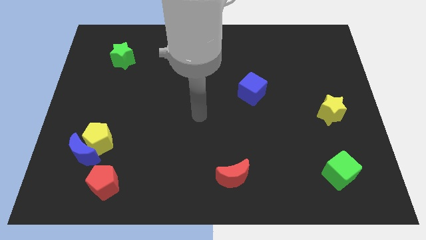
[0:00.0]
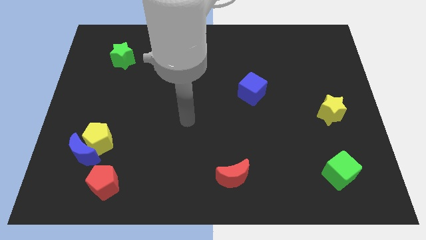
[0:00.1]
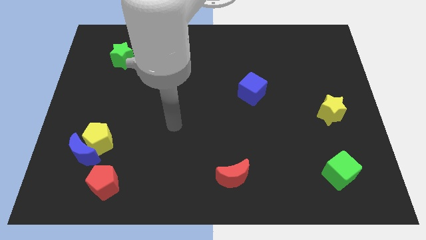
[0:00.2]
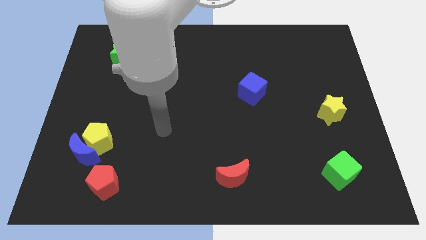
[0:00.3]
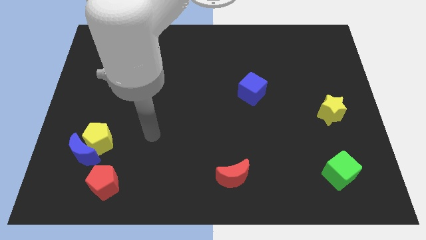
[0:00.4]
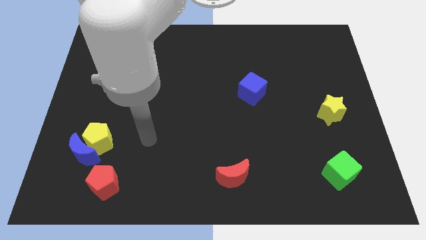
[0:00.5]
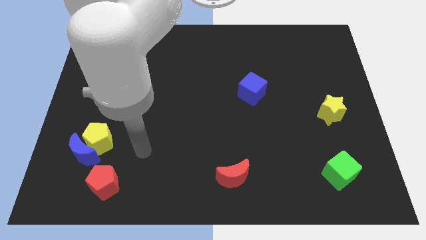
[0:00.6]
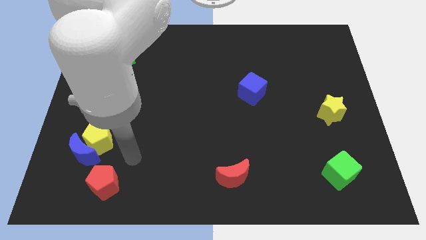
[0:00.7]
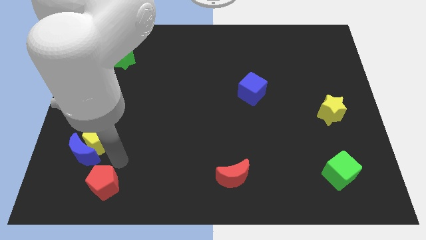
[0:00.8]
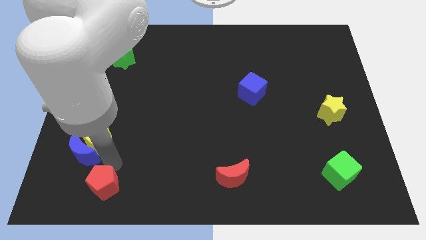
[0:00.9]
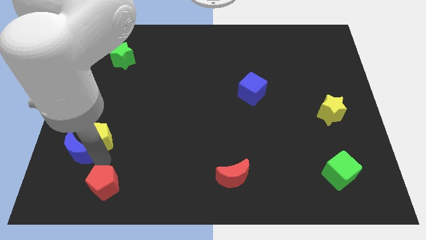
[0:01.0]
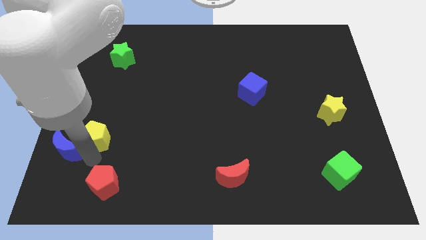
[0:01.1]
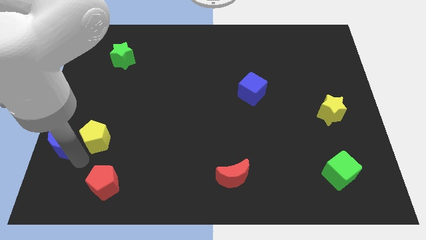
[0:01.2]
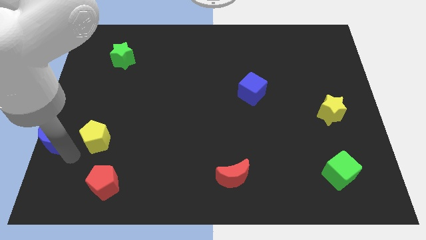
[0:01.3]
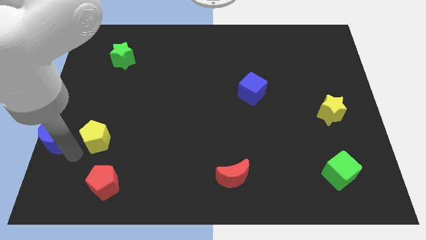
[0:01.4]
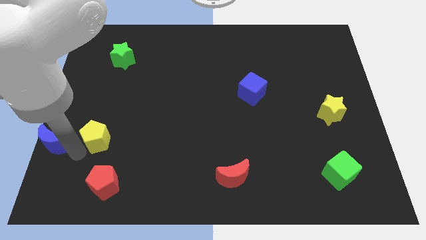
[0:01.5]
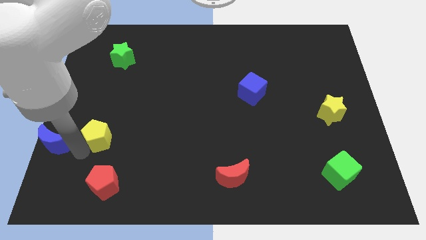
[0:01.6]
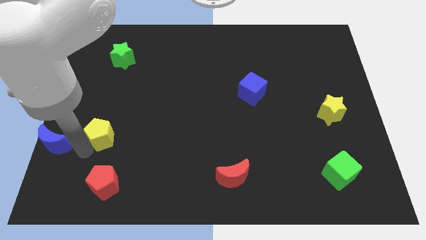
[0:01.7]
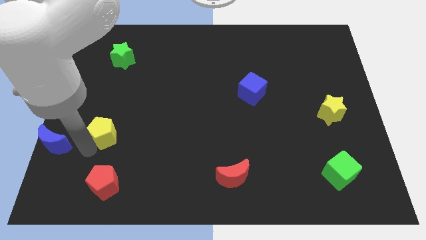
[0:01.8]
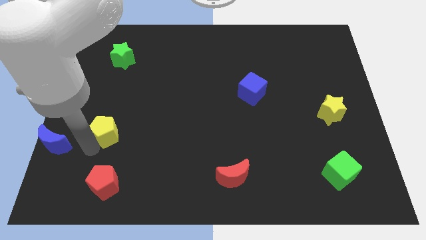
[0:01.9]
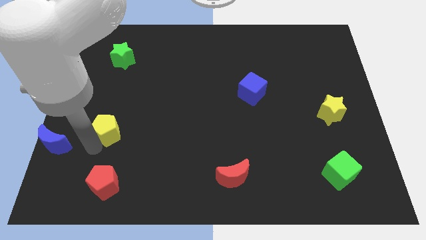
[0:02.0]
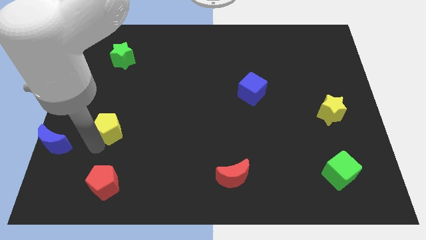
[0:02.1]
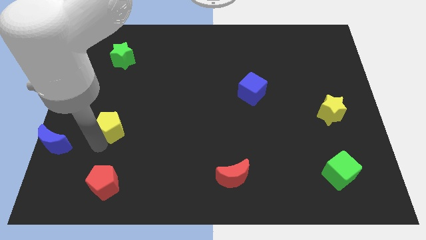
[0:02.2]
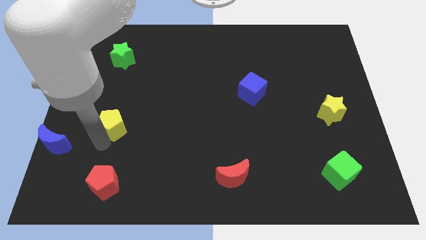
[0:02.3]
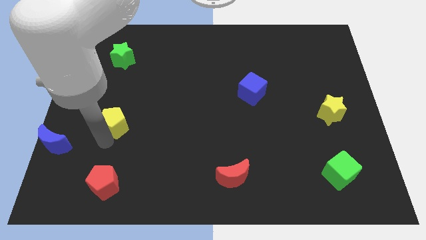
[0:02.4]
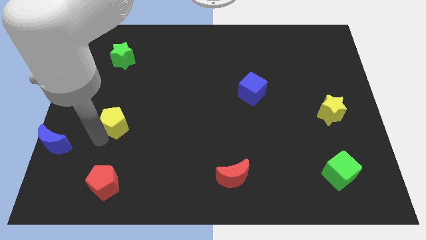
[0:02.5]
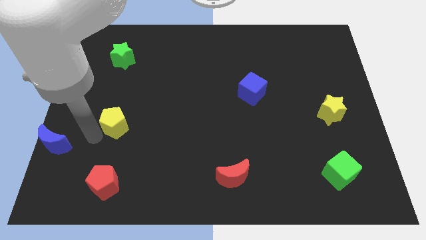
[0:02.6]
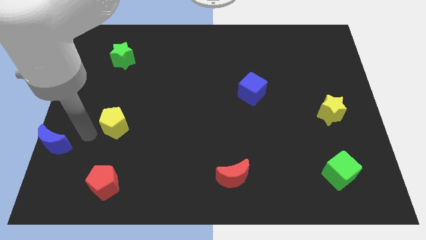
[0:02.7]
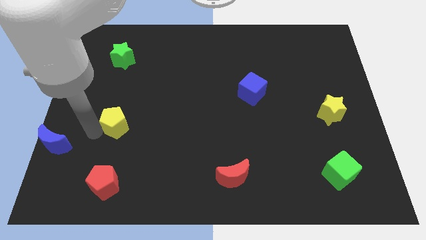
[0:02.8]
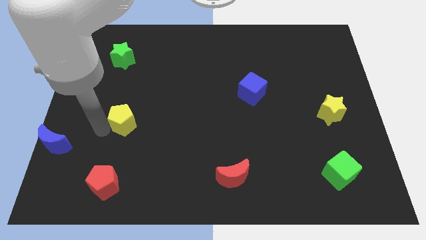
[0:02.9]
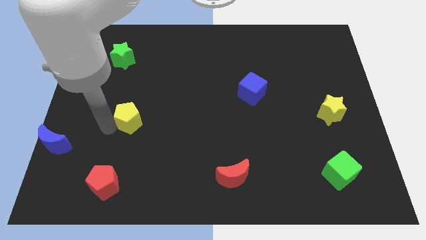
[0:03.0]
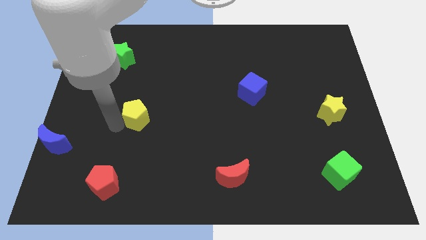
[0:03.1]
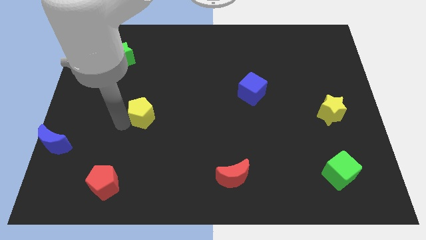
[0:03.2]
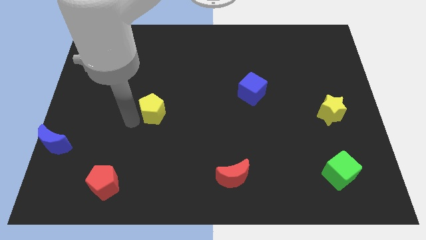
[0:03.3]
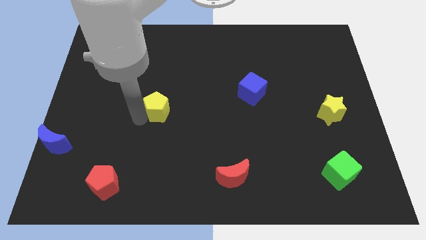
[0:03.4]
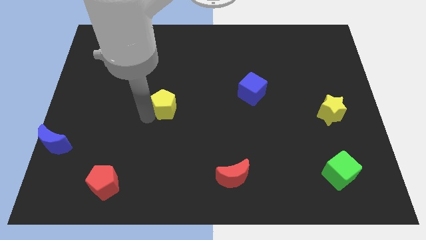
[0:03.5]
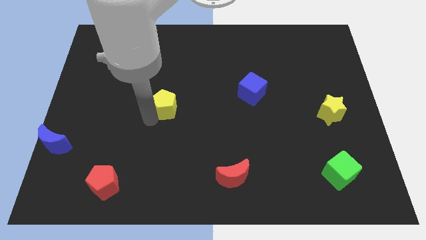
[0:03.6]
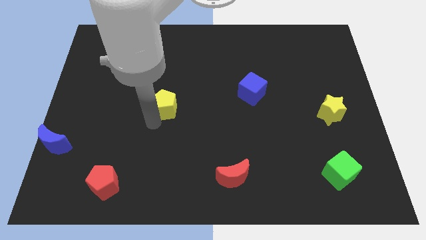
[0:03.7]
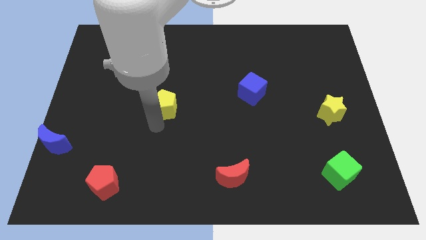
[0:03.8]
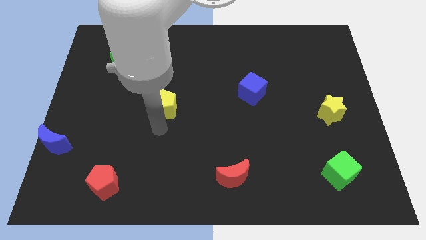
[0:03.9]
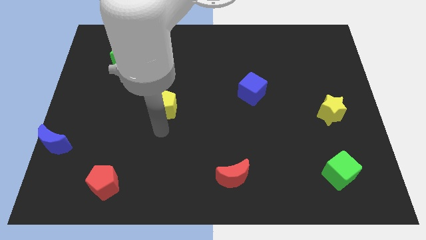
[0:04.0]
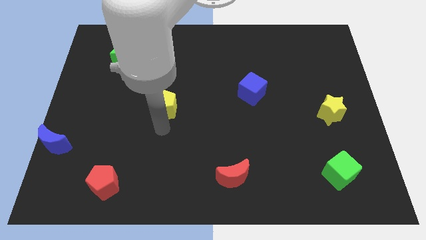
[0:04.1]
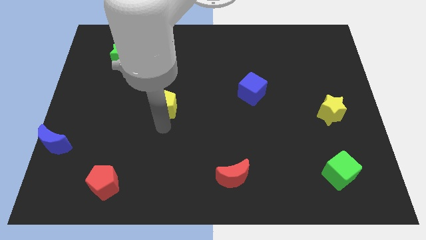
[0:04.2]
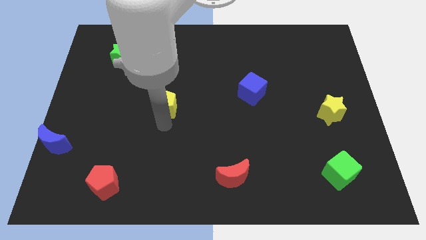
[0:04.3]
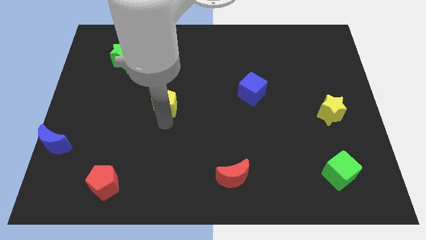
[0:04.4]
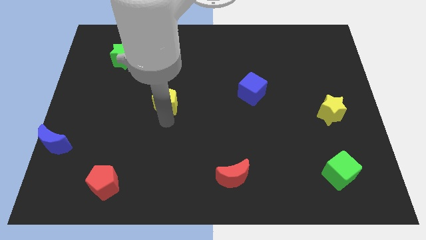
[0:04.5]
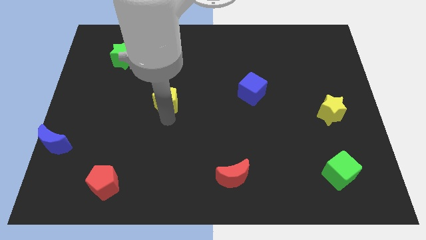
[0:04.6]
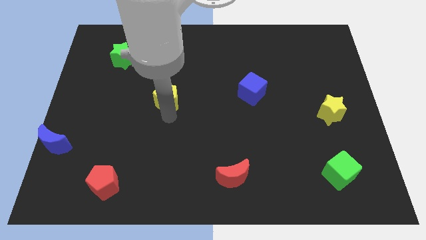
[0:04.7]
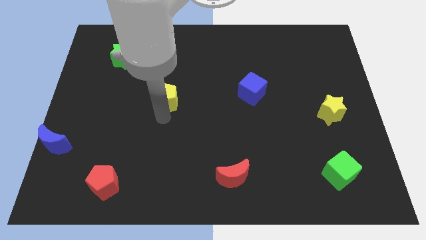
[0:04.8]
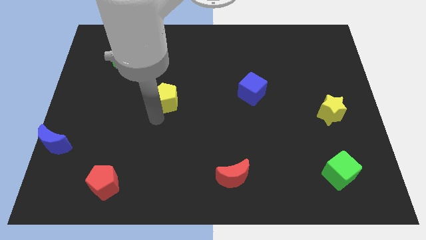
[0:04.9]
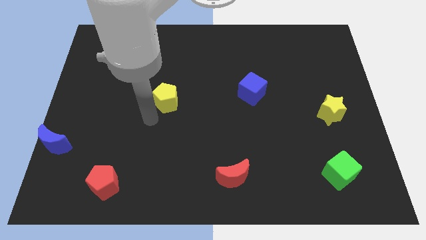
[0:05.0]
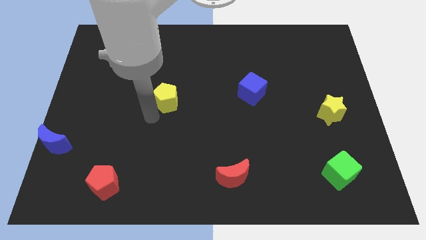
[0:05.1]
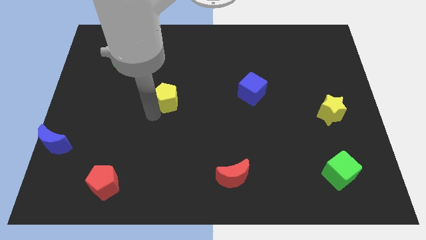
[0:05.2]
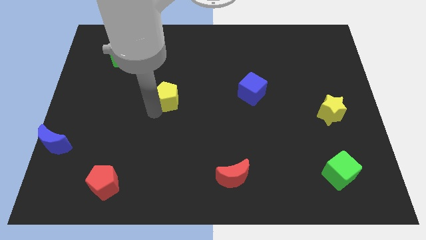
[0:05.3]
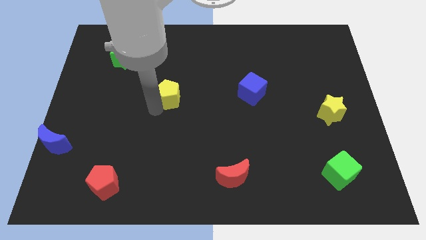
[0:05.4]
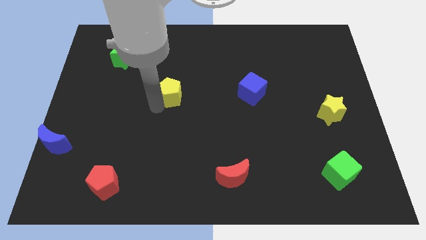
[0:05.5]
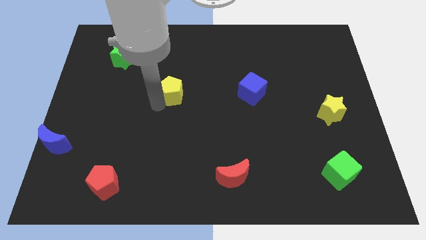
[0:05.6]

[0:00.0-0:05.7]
push the yellow pentagon up and right

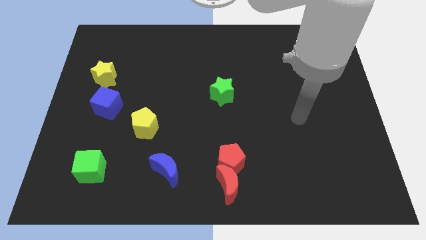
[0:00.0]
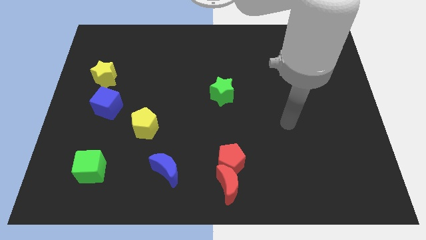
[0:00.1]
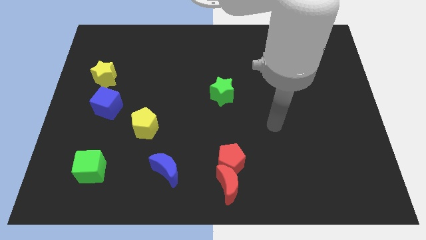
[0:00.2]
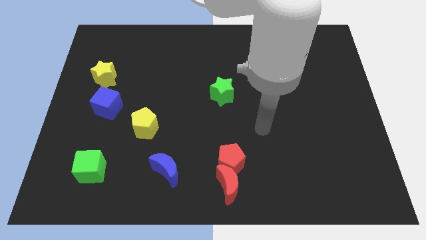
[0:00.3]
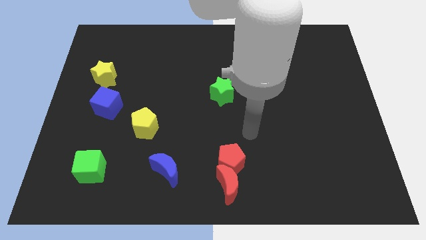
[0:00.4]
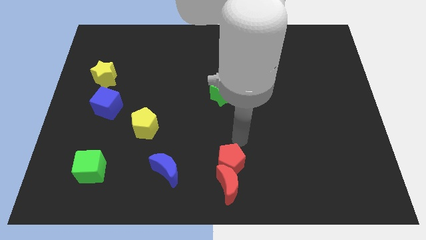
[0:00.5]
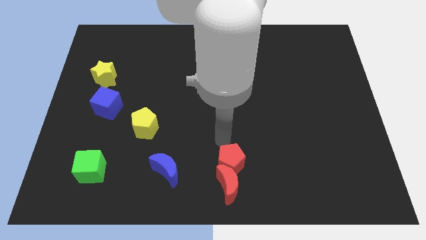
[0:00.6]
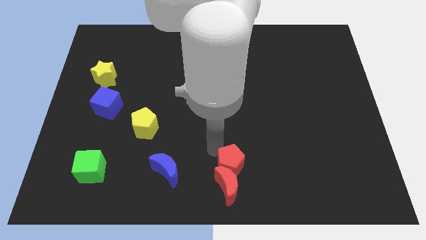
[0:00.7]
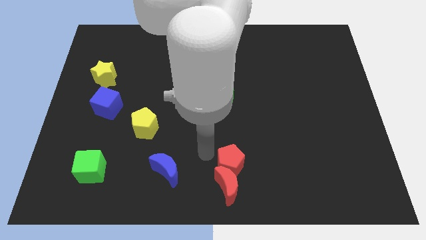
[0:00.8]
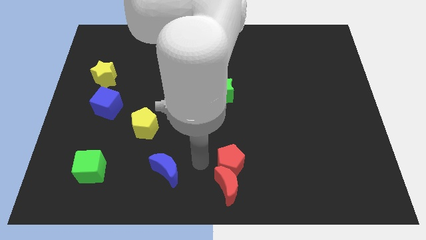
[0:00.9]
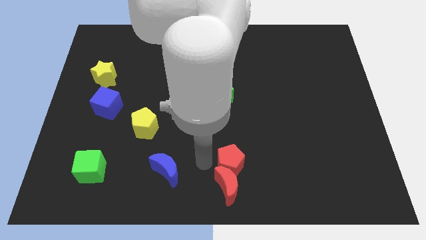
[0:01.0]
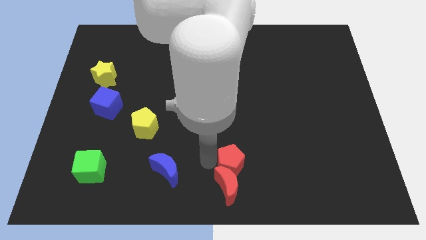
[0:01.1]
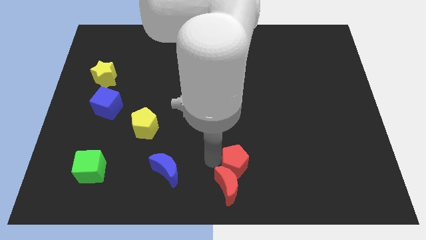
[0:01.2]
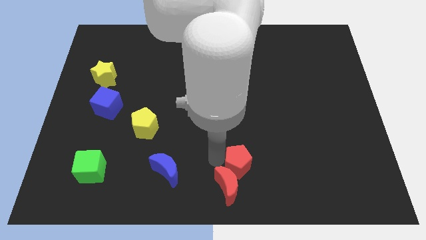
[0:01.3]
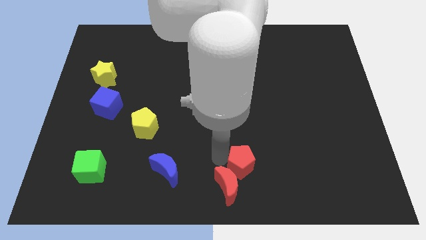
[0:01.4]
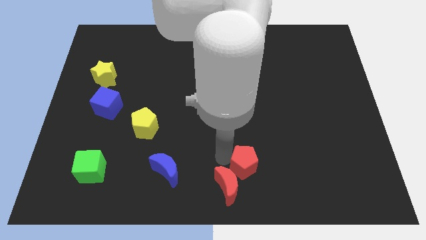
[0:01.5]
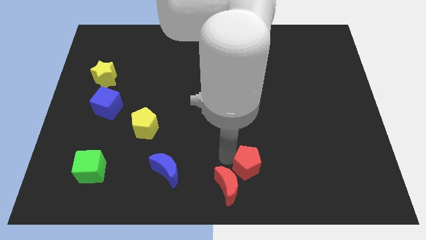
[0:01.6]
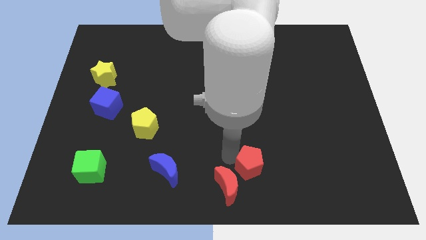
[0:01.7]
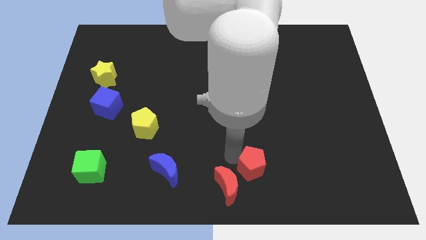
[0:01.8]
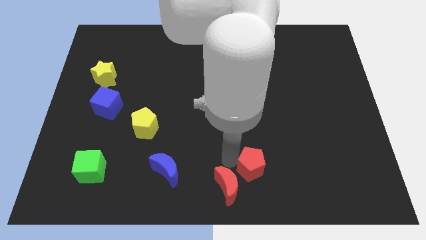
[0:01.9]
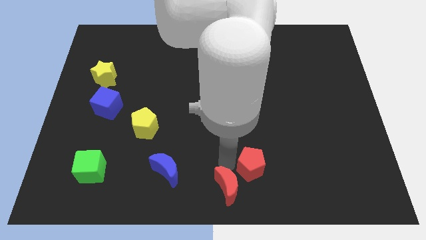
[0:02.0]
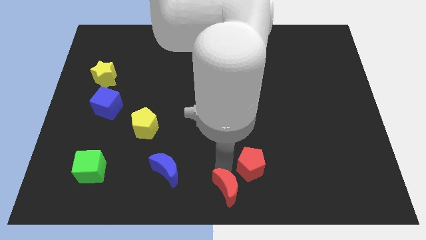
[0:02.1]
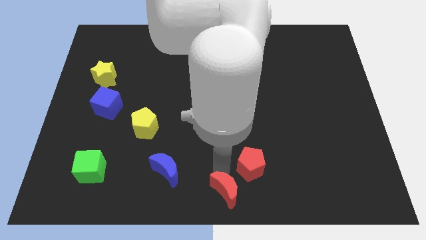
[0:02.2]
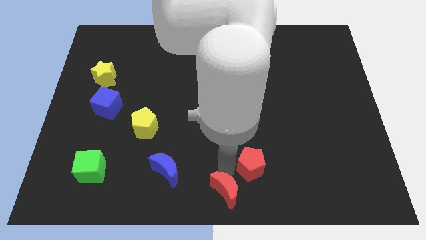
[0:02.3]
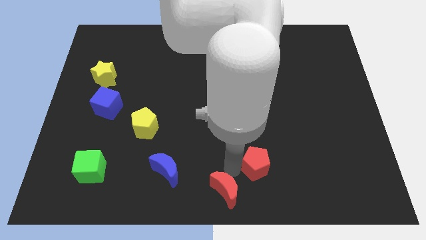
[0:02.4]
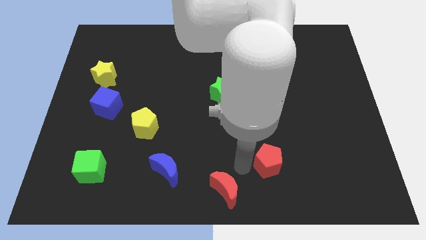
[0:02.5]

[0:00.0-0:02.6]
slightly push the red pentagon to the right
